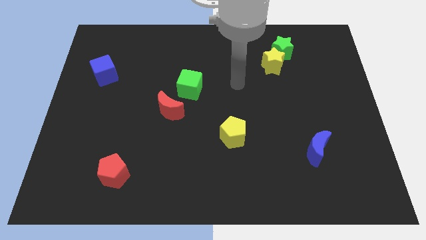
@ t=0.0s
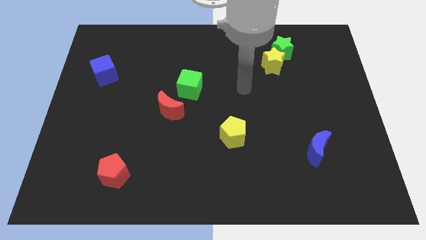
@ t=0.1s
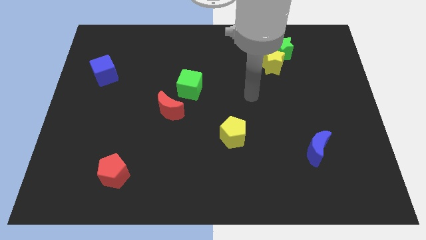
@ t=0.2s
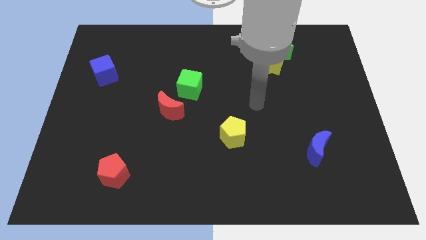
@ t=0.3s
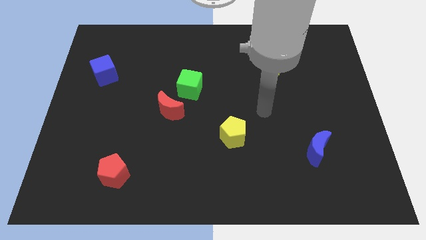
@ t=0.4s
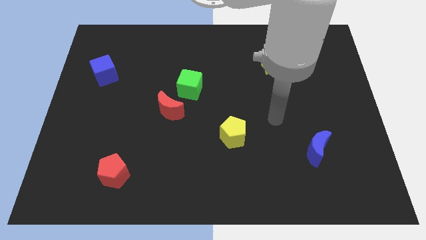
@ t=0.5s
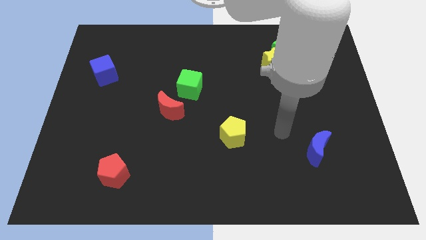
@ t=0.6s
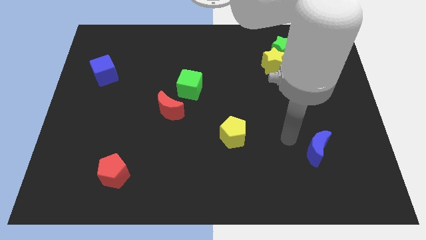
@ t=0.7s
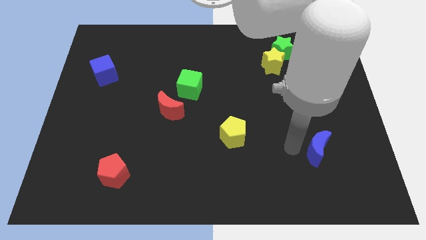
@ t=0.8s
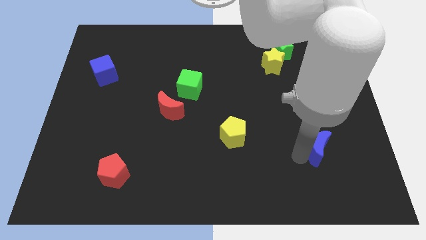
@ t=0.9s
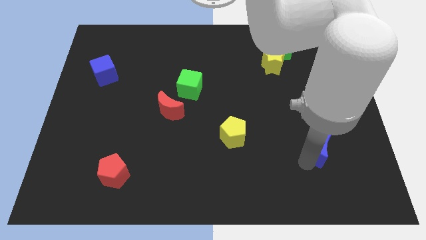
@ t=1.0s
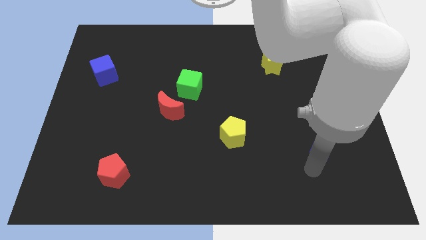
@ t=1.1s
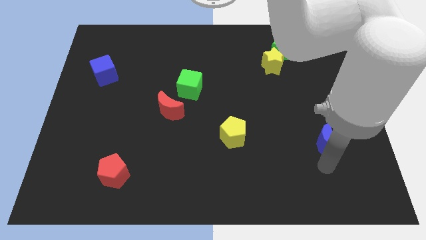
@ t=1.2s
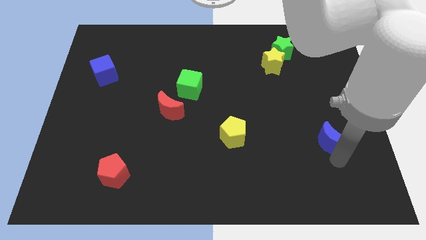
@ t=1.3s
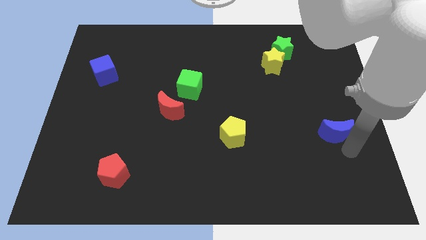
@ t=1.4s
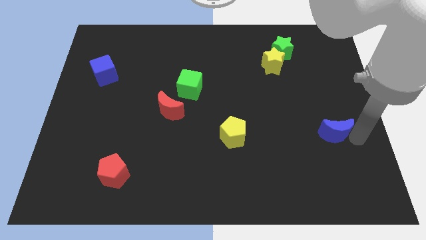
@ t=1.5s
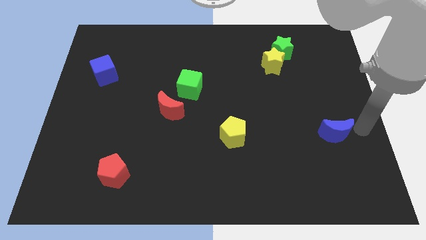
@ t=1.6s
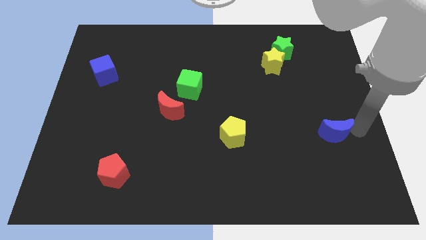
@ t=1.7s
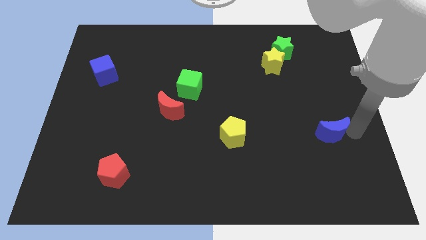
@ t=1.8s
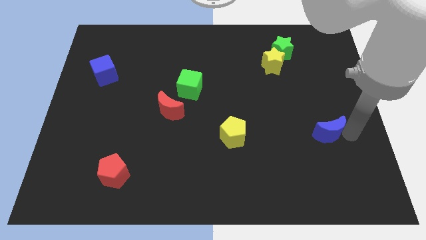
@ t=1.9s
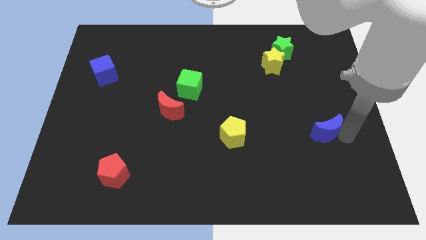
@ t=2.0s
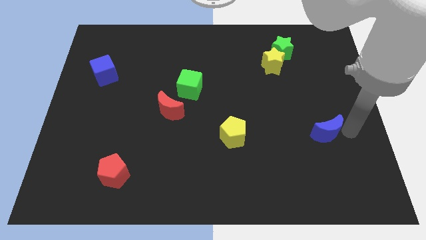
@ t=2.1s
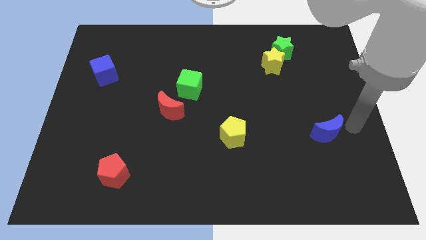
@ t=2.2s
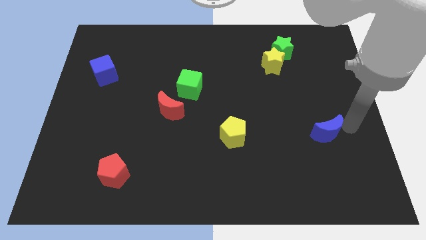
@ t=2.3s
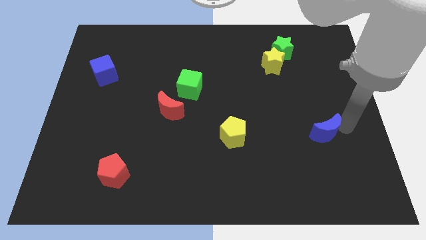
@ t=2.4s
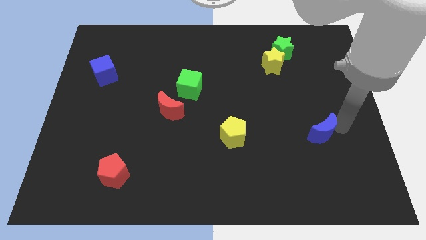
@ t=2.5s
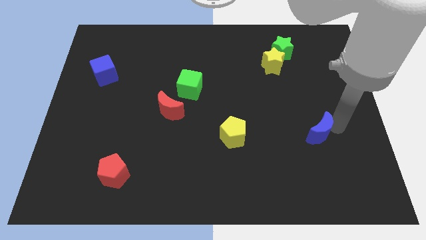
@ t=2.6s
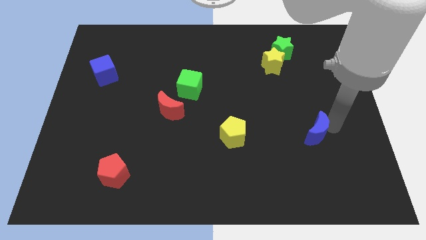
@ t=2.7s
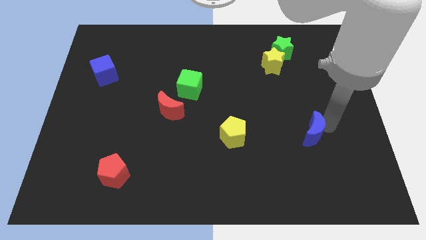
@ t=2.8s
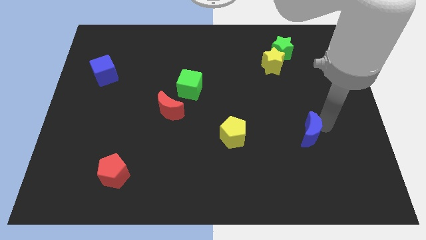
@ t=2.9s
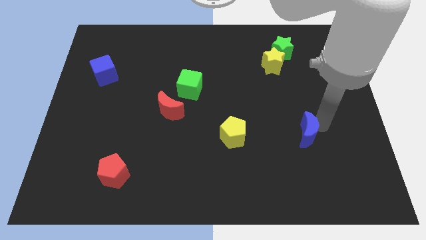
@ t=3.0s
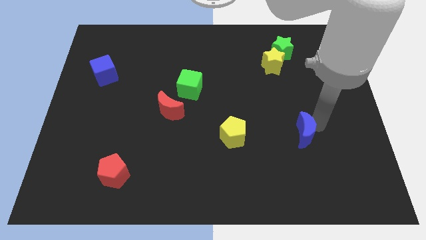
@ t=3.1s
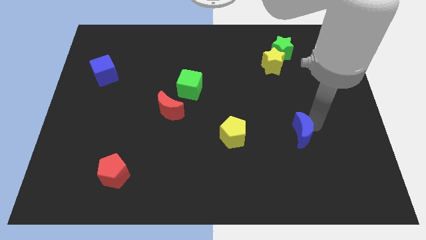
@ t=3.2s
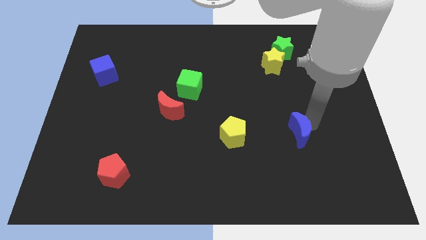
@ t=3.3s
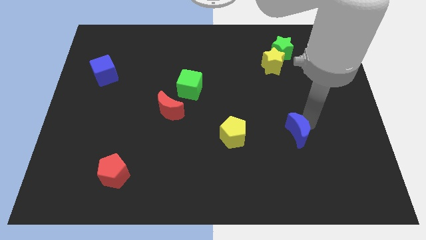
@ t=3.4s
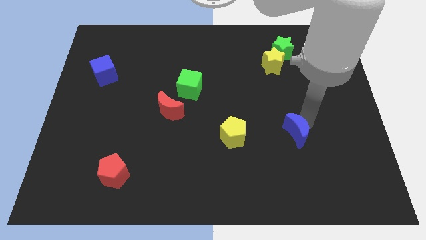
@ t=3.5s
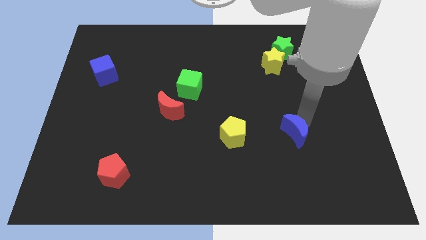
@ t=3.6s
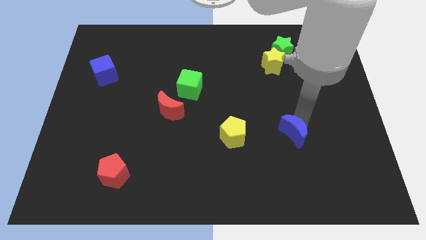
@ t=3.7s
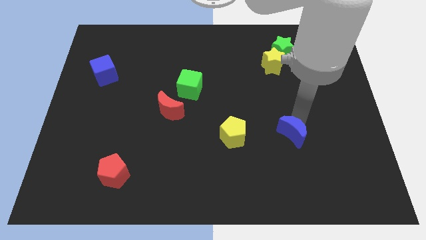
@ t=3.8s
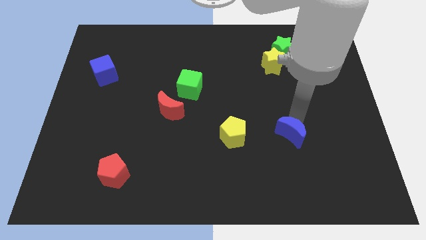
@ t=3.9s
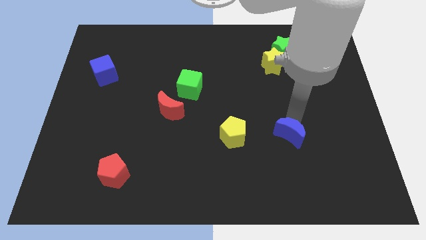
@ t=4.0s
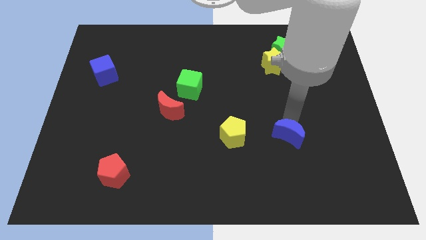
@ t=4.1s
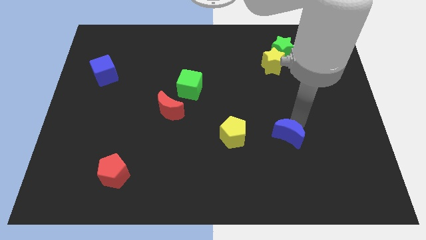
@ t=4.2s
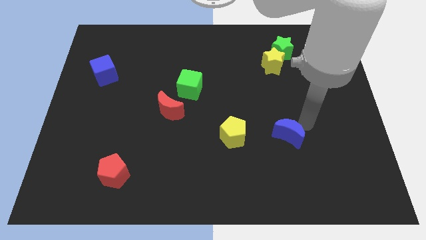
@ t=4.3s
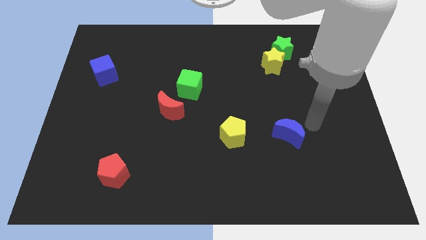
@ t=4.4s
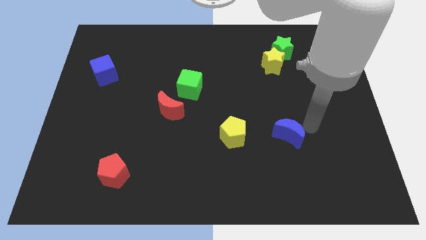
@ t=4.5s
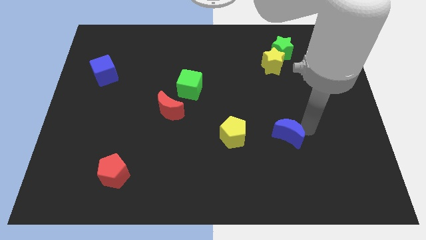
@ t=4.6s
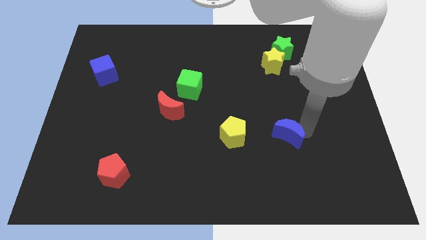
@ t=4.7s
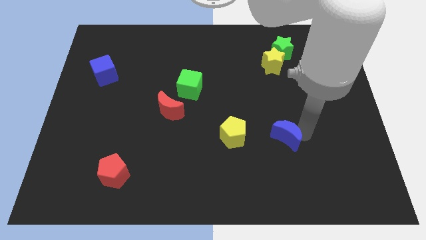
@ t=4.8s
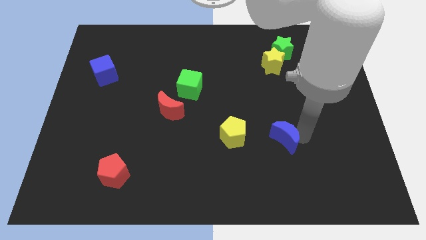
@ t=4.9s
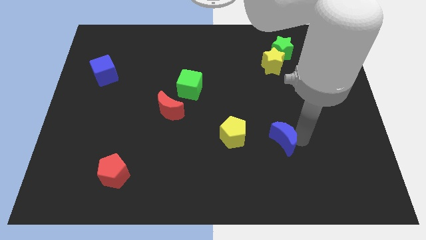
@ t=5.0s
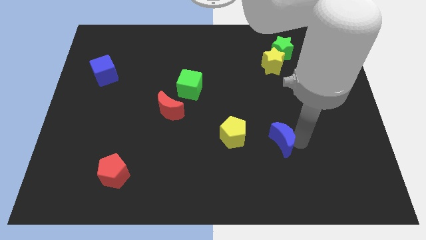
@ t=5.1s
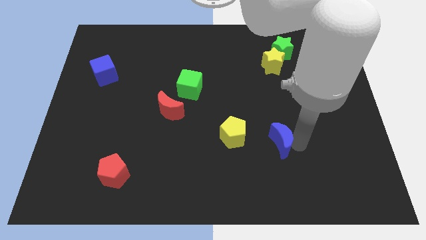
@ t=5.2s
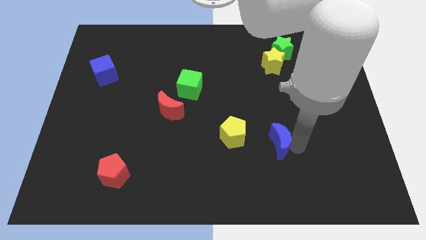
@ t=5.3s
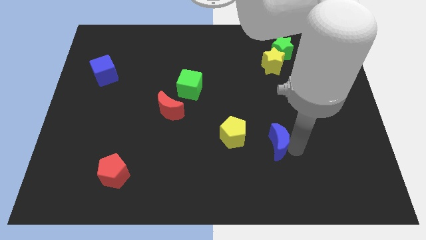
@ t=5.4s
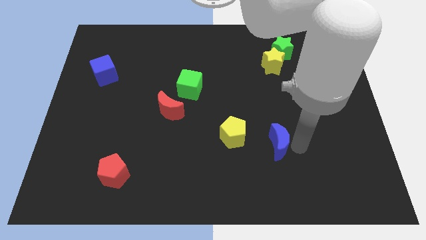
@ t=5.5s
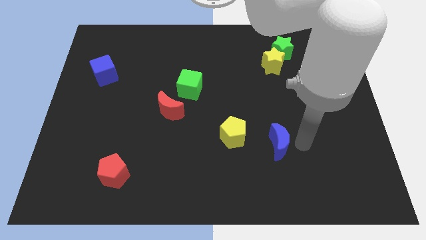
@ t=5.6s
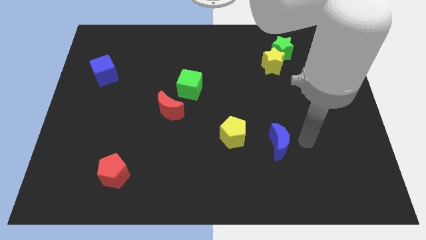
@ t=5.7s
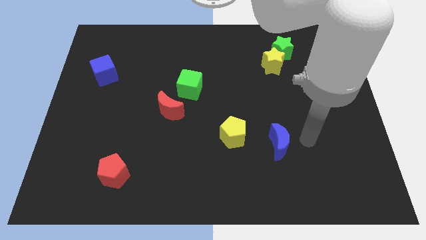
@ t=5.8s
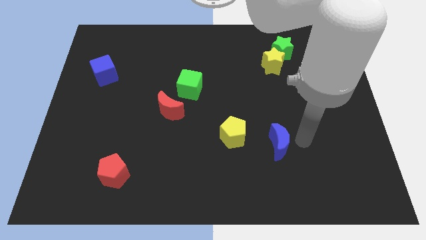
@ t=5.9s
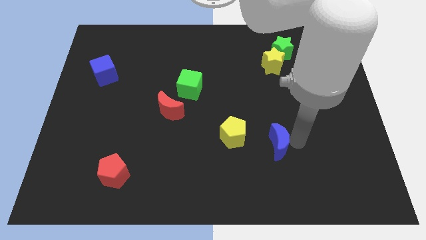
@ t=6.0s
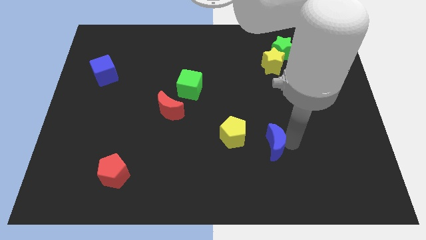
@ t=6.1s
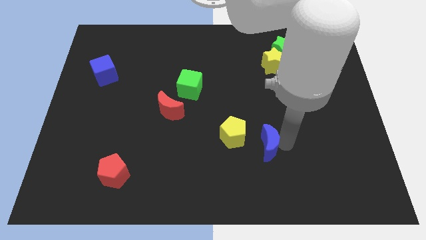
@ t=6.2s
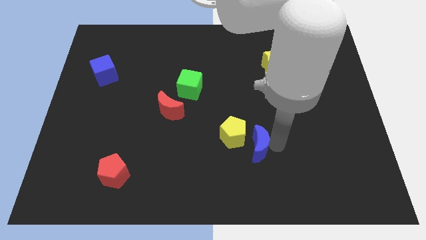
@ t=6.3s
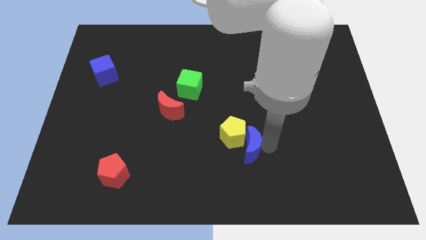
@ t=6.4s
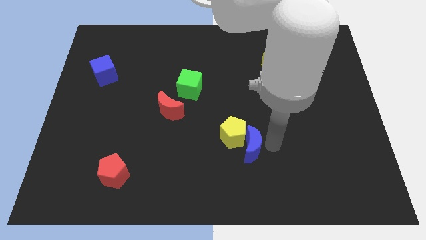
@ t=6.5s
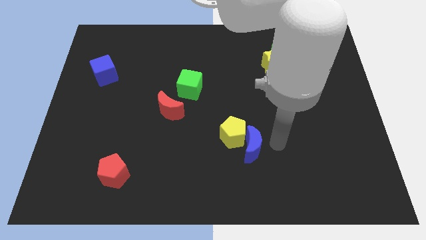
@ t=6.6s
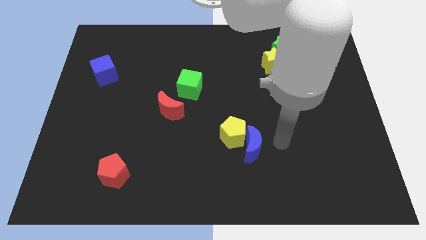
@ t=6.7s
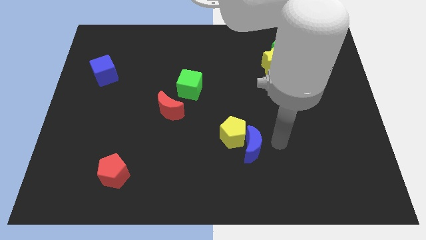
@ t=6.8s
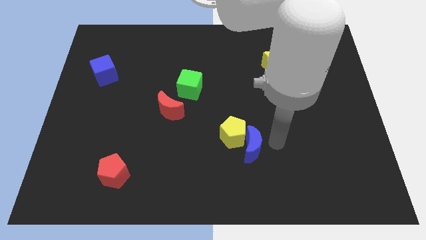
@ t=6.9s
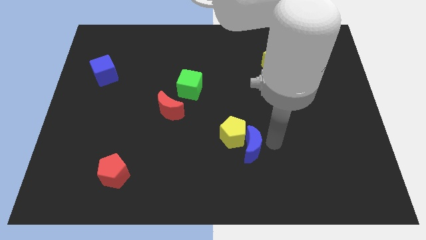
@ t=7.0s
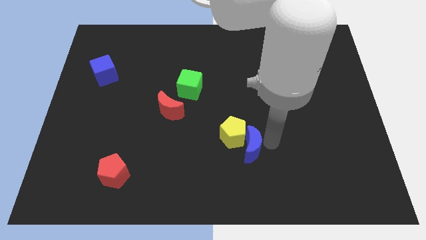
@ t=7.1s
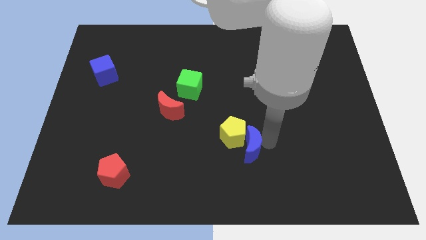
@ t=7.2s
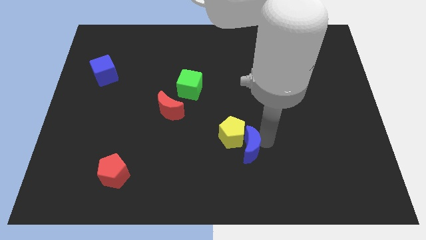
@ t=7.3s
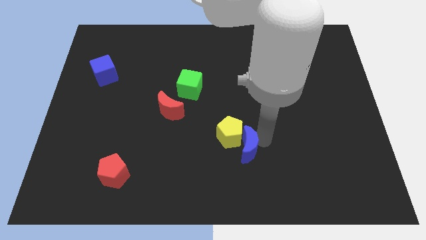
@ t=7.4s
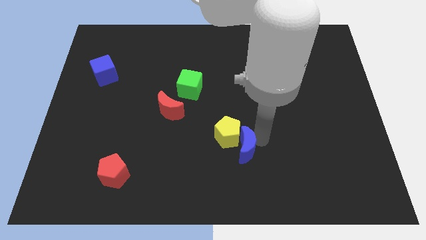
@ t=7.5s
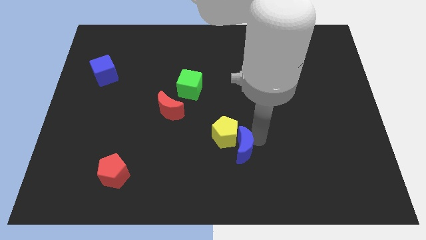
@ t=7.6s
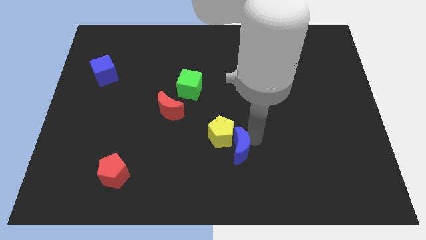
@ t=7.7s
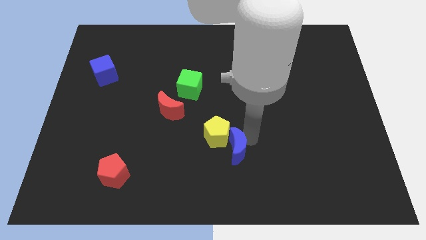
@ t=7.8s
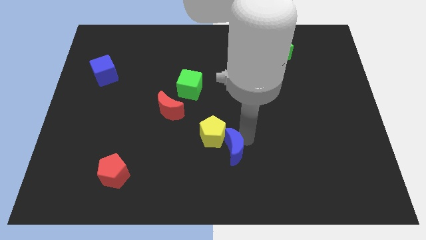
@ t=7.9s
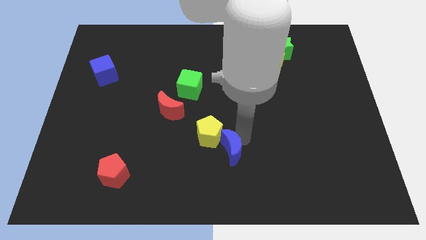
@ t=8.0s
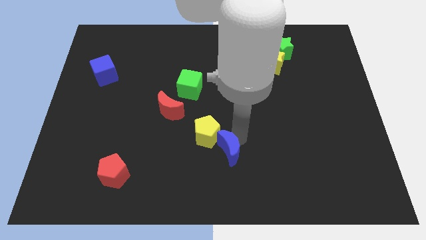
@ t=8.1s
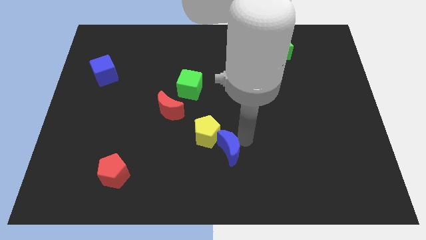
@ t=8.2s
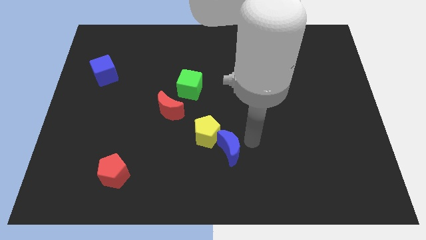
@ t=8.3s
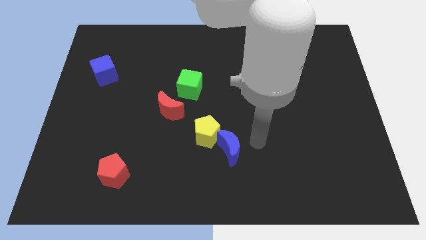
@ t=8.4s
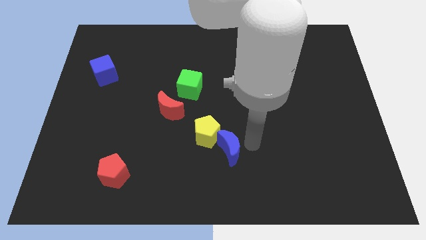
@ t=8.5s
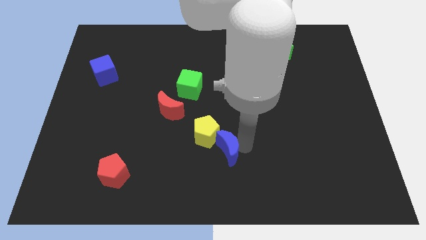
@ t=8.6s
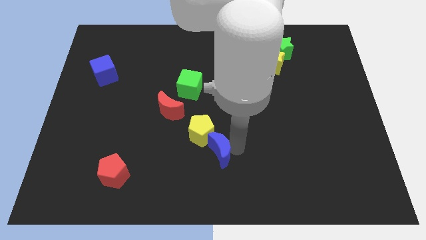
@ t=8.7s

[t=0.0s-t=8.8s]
slide the blue moon to the left
